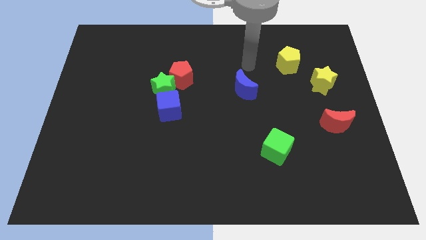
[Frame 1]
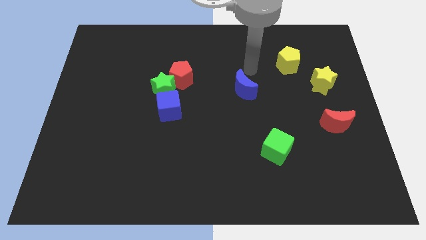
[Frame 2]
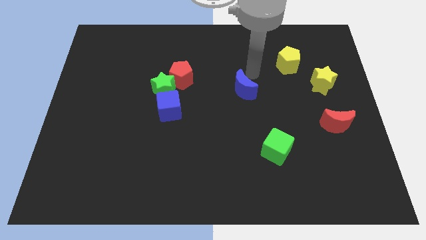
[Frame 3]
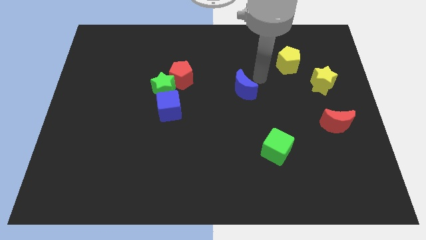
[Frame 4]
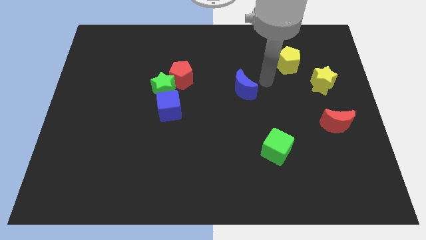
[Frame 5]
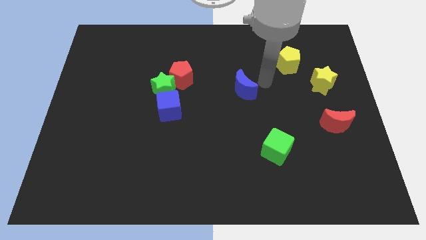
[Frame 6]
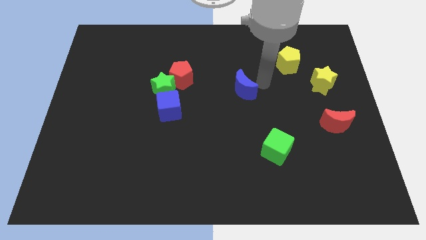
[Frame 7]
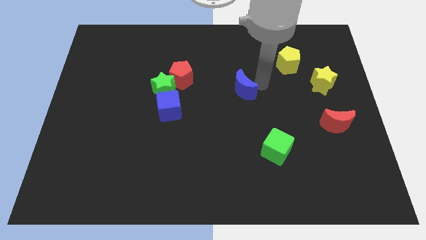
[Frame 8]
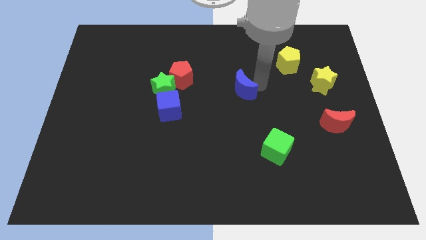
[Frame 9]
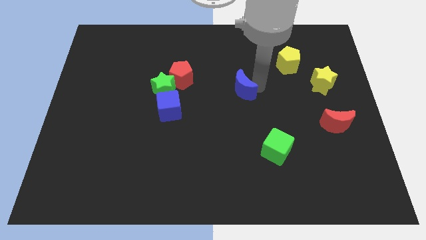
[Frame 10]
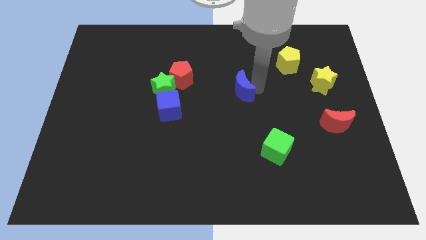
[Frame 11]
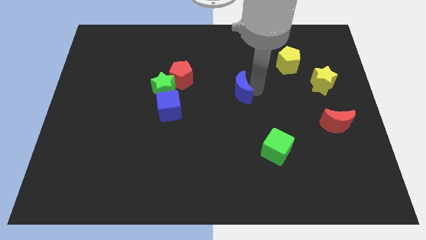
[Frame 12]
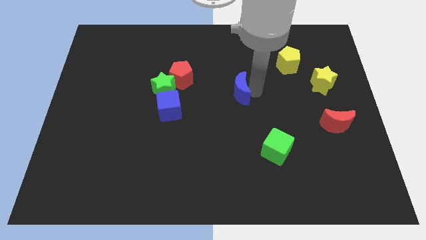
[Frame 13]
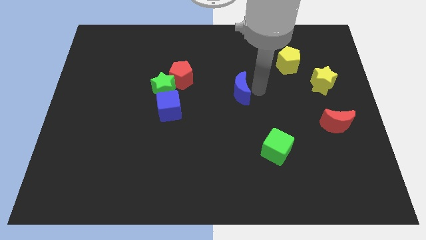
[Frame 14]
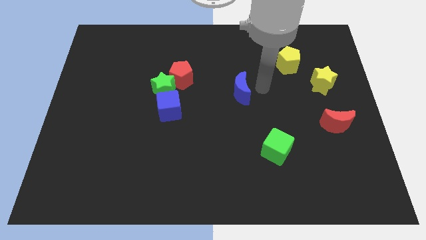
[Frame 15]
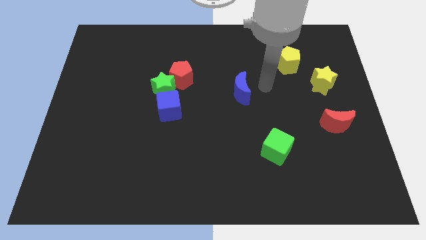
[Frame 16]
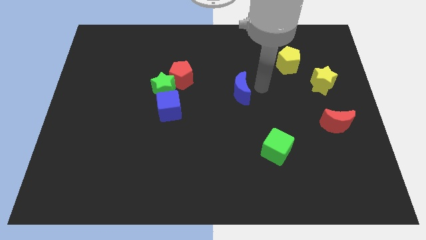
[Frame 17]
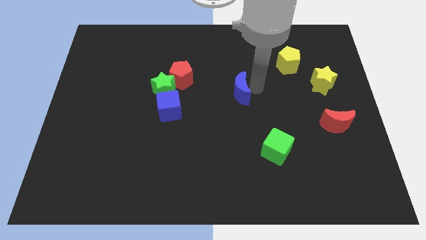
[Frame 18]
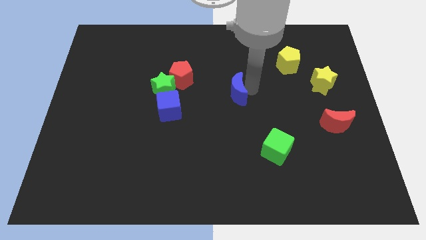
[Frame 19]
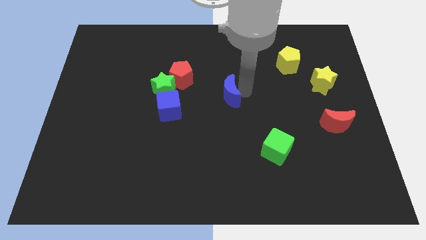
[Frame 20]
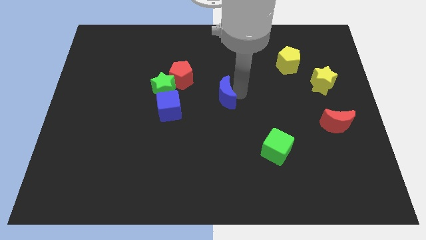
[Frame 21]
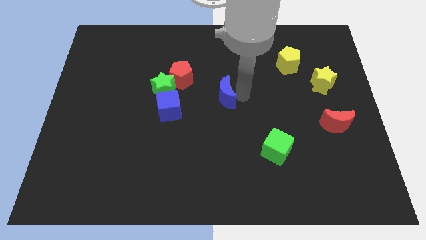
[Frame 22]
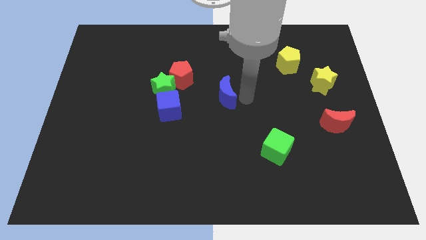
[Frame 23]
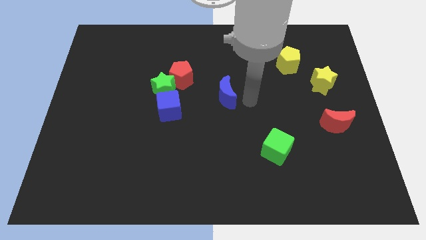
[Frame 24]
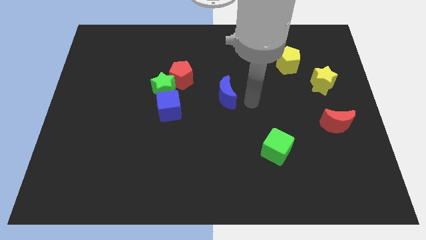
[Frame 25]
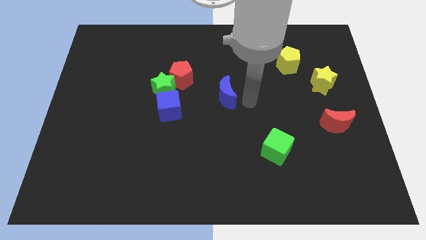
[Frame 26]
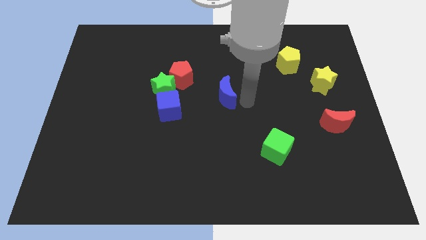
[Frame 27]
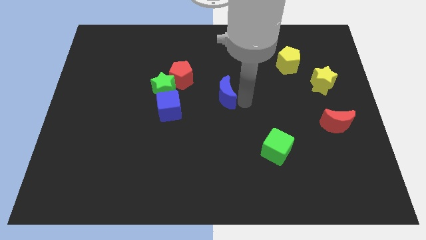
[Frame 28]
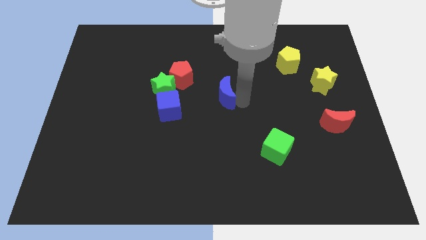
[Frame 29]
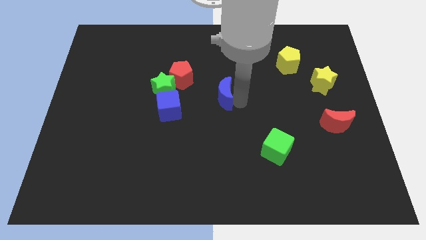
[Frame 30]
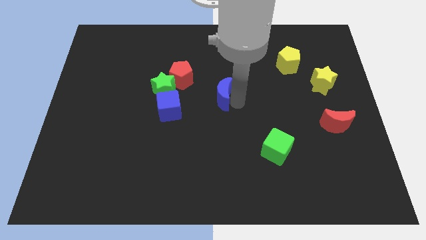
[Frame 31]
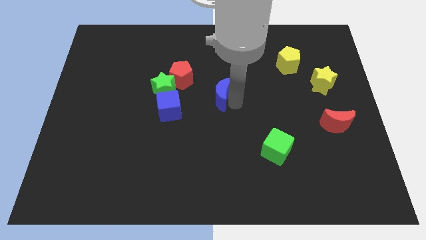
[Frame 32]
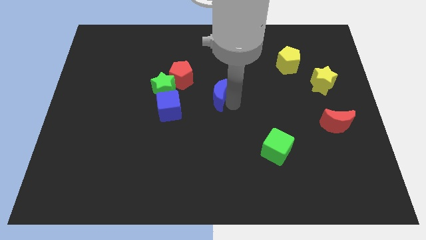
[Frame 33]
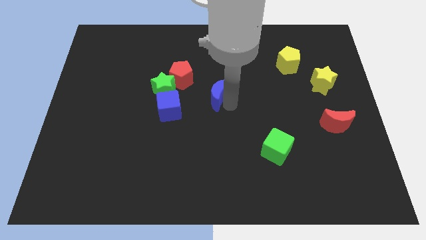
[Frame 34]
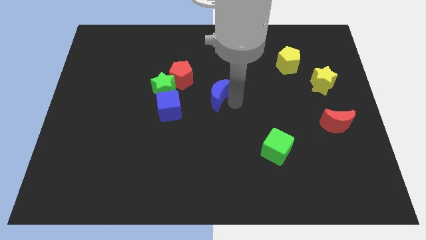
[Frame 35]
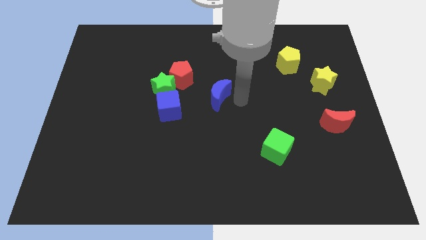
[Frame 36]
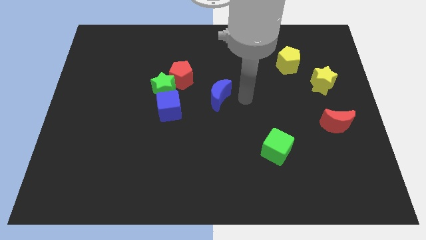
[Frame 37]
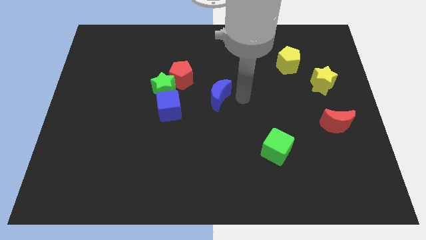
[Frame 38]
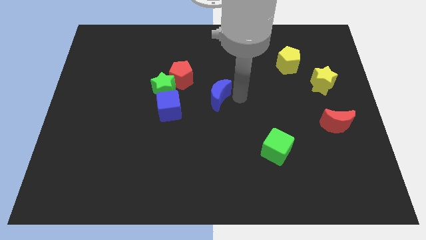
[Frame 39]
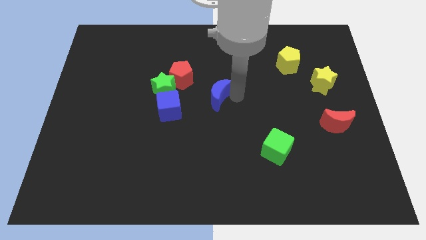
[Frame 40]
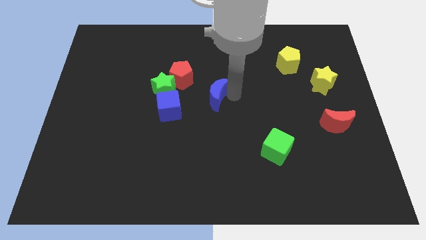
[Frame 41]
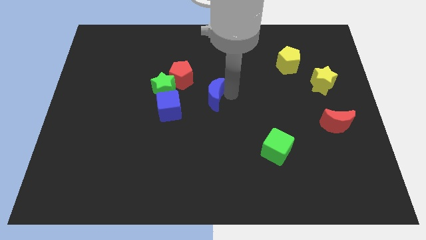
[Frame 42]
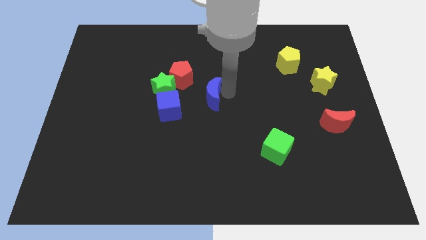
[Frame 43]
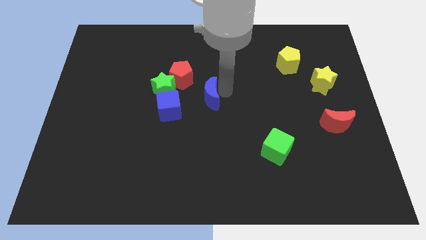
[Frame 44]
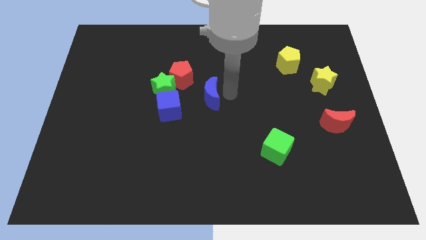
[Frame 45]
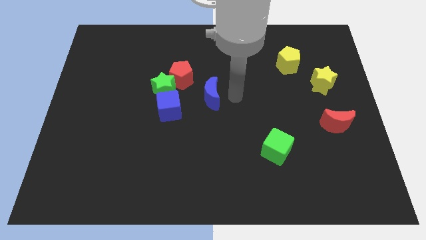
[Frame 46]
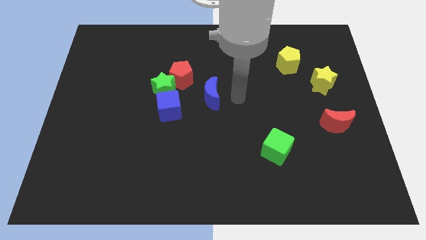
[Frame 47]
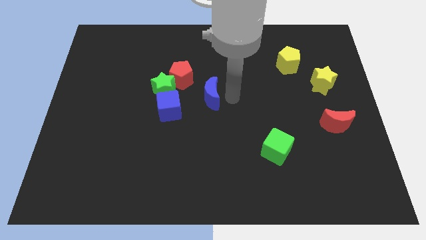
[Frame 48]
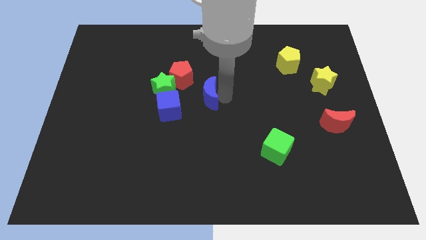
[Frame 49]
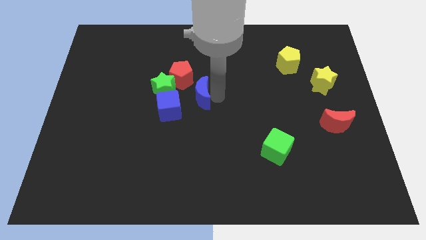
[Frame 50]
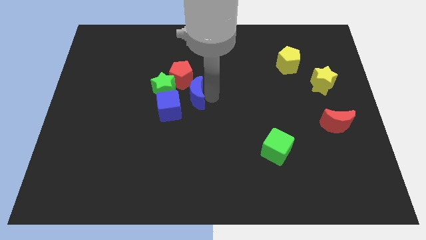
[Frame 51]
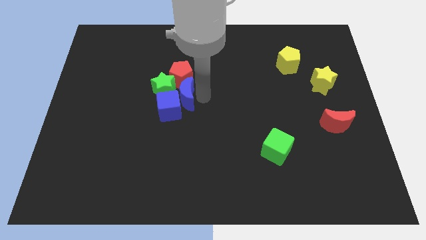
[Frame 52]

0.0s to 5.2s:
push the blue moon towards the green star

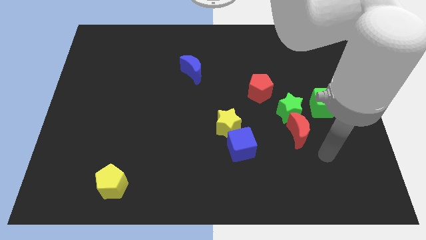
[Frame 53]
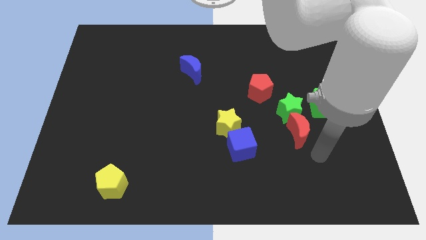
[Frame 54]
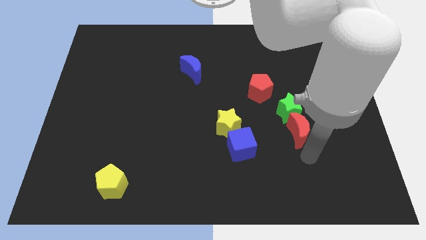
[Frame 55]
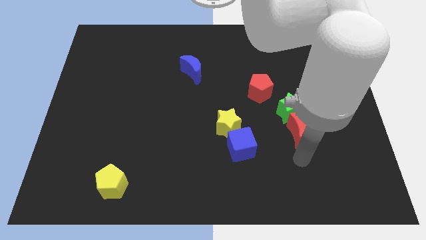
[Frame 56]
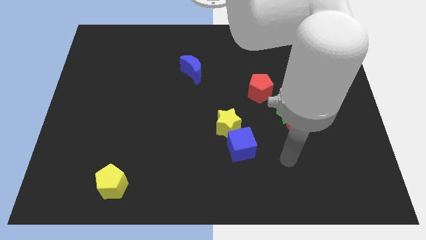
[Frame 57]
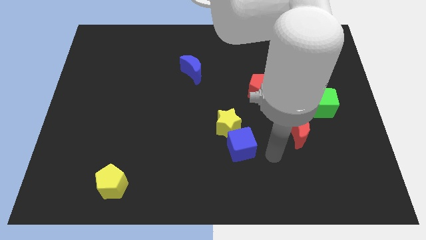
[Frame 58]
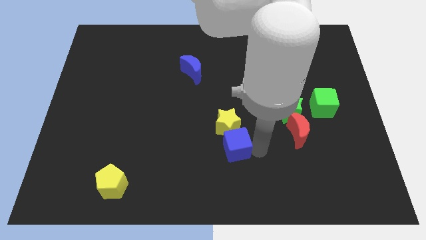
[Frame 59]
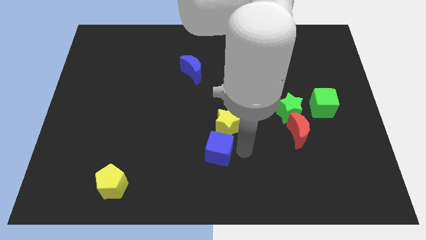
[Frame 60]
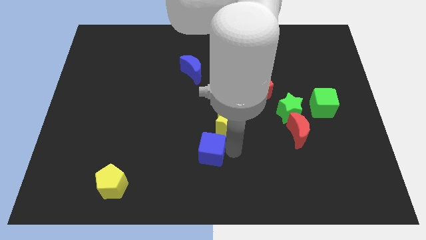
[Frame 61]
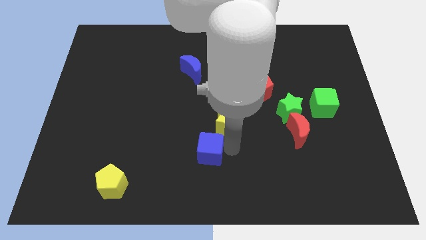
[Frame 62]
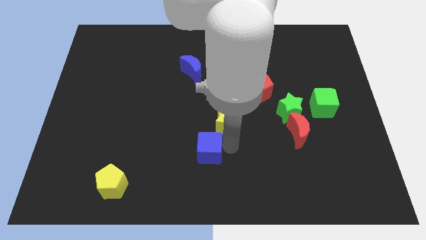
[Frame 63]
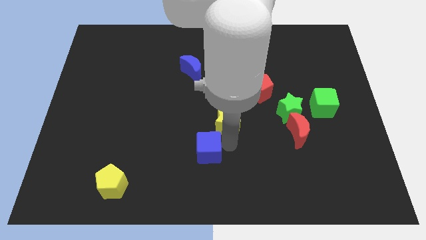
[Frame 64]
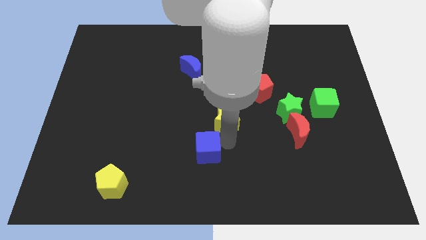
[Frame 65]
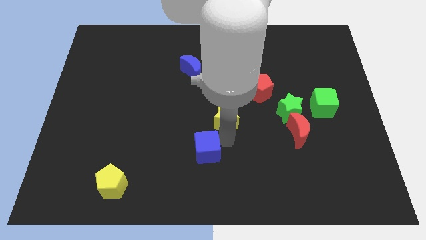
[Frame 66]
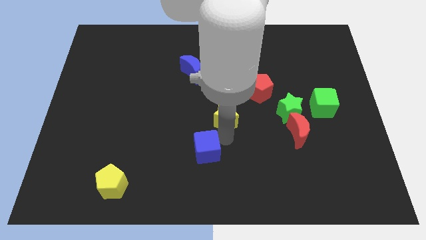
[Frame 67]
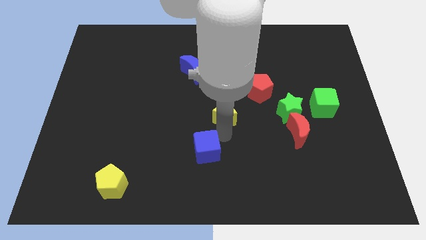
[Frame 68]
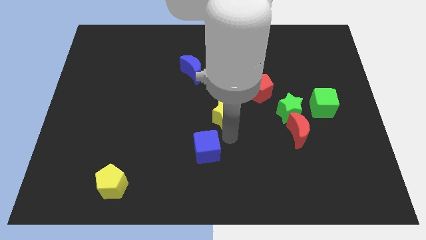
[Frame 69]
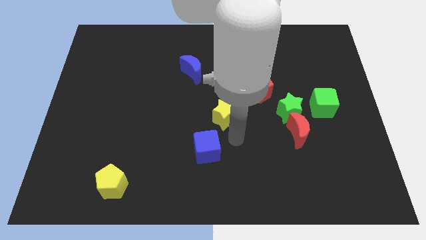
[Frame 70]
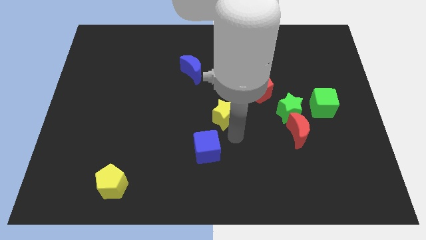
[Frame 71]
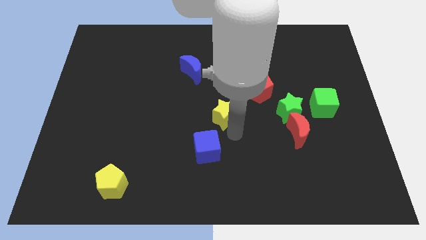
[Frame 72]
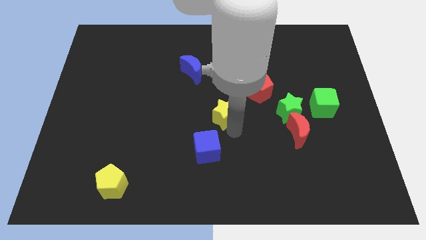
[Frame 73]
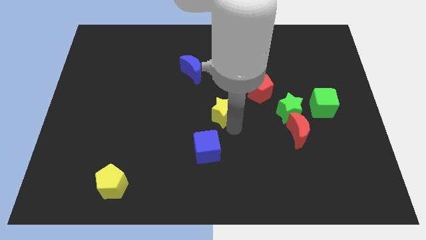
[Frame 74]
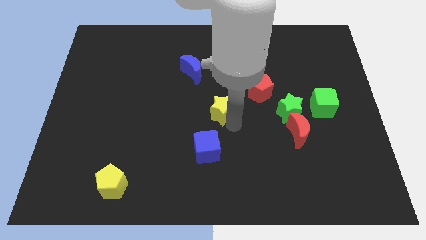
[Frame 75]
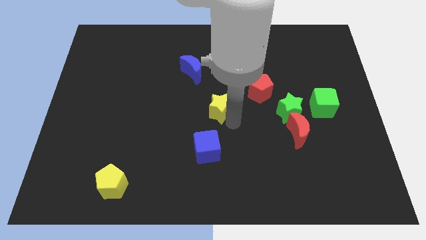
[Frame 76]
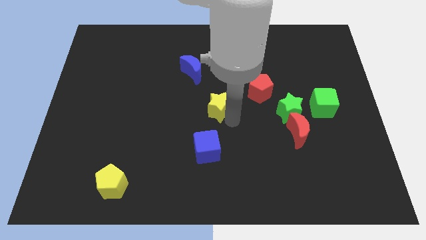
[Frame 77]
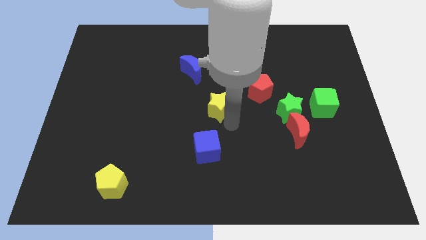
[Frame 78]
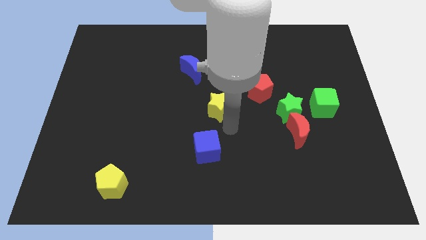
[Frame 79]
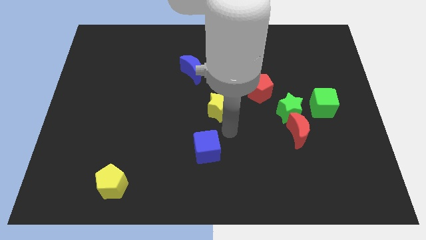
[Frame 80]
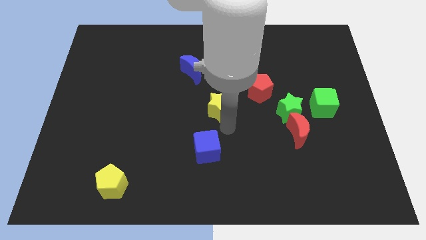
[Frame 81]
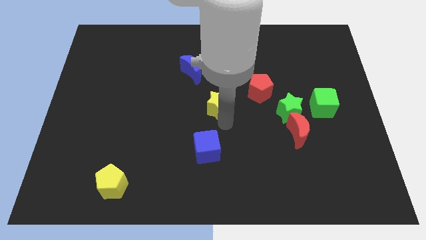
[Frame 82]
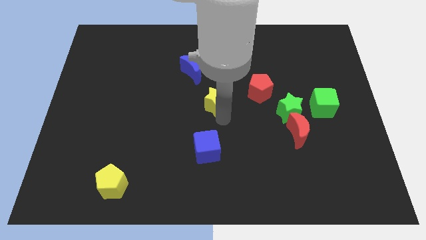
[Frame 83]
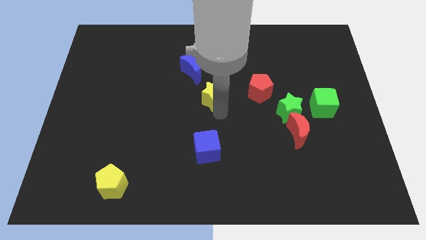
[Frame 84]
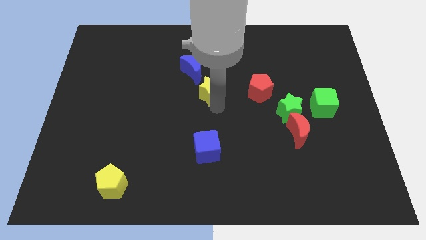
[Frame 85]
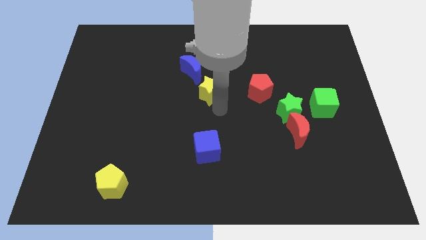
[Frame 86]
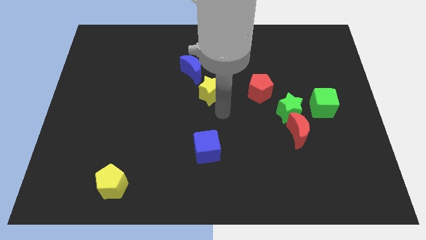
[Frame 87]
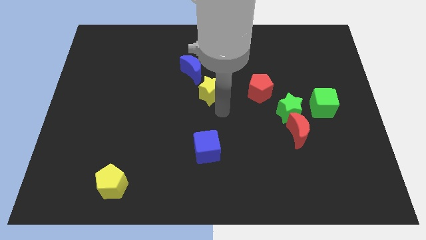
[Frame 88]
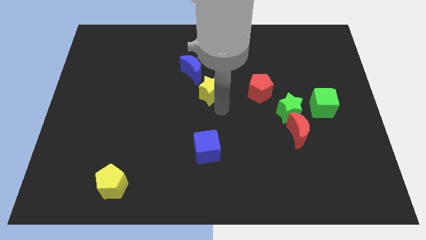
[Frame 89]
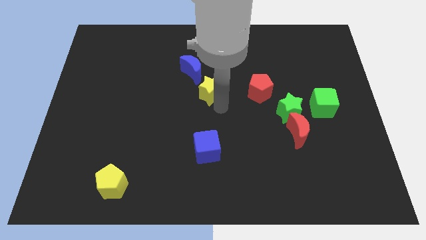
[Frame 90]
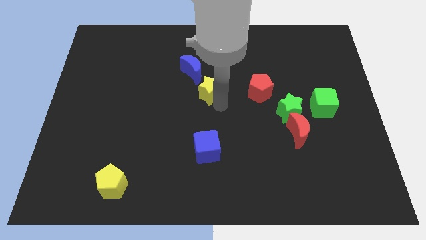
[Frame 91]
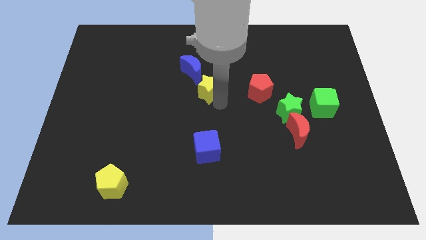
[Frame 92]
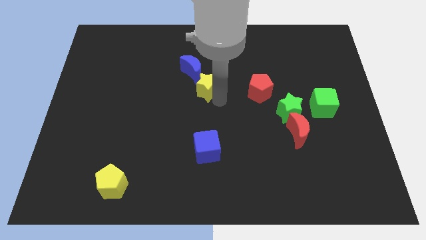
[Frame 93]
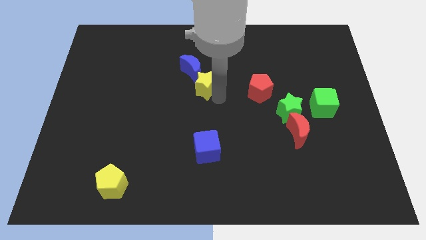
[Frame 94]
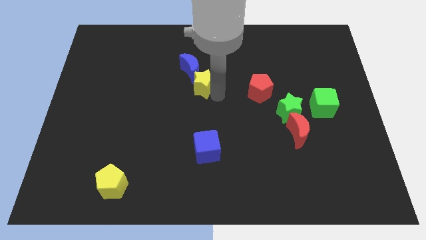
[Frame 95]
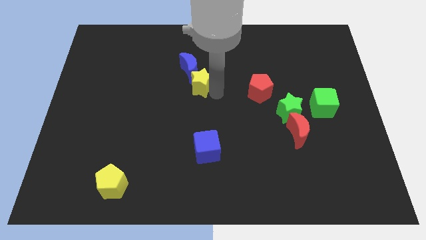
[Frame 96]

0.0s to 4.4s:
push the yellow star next to the blue moon
